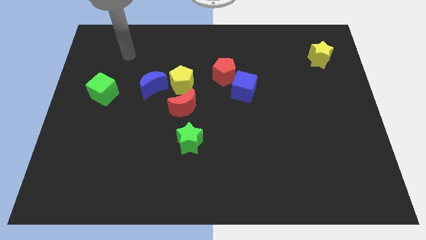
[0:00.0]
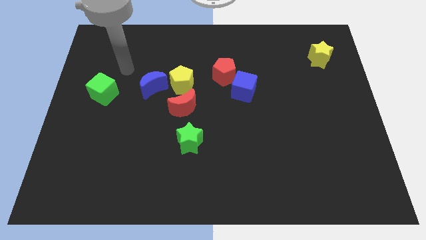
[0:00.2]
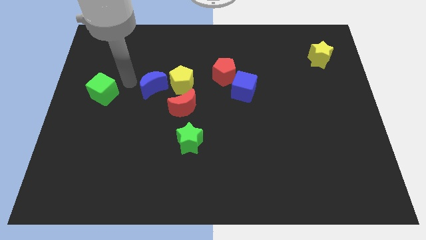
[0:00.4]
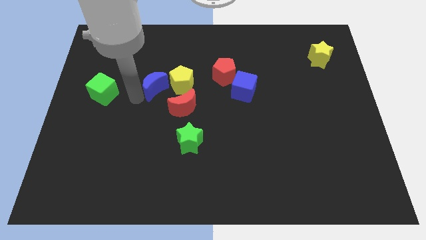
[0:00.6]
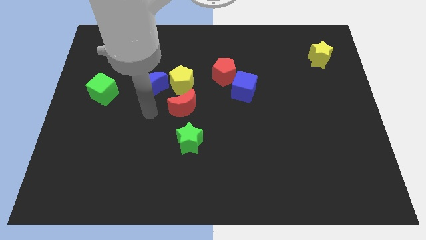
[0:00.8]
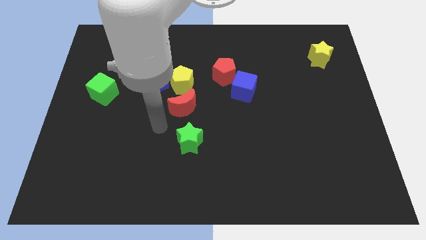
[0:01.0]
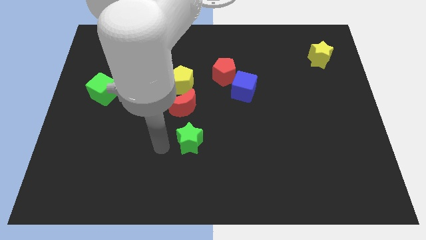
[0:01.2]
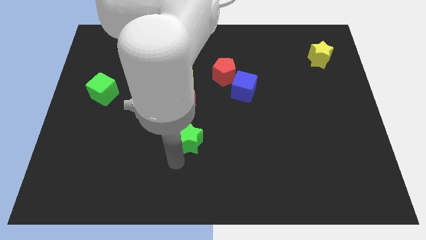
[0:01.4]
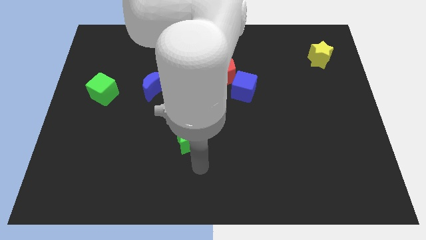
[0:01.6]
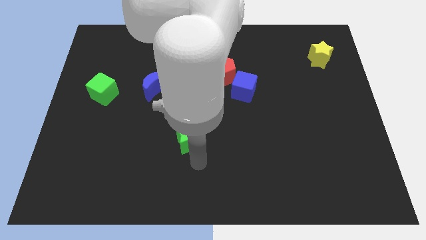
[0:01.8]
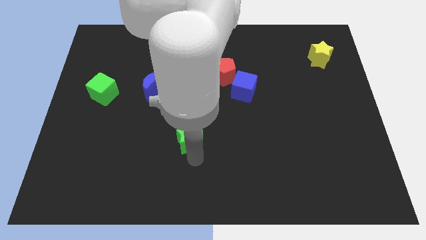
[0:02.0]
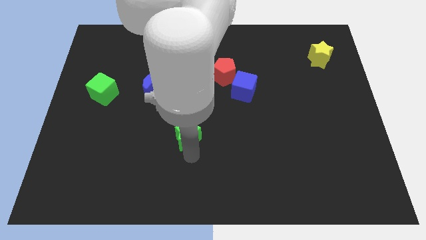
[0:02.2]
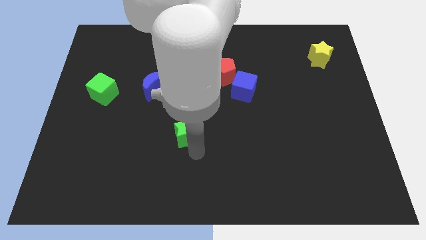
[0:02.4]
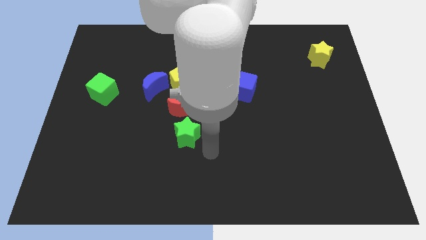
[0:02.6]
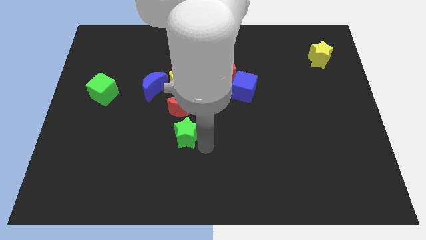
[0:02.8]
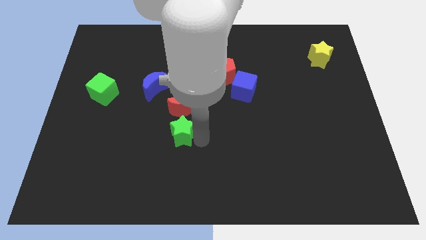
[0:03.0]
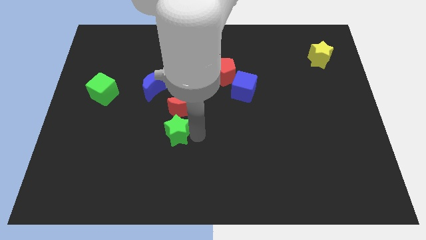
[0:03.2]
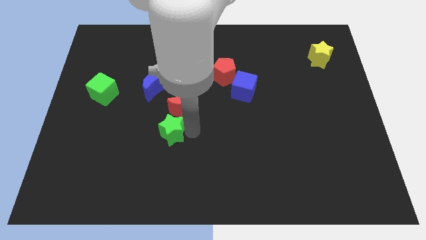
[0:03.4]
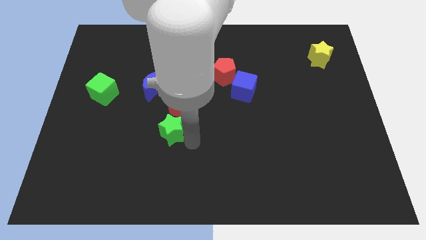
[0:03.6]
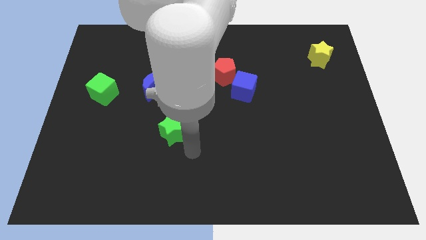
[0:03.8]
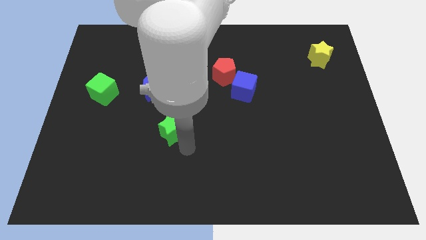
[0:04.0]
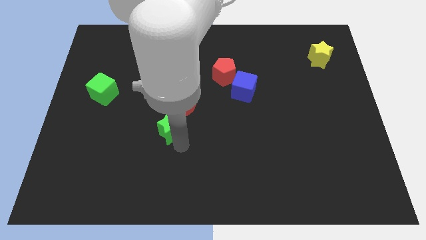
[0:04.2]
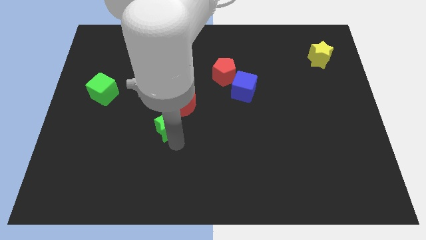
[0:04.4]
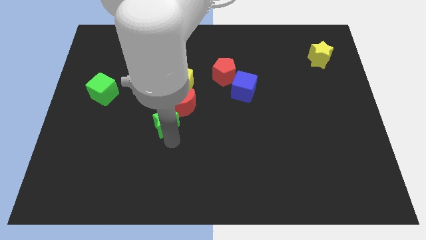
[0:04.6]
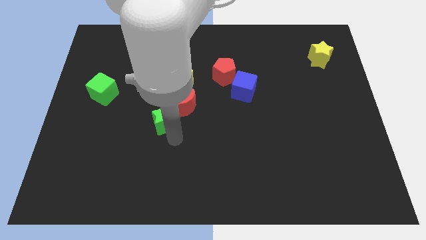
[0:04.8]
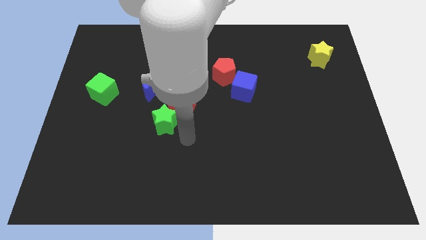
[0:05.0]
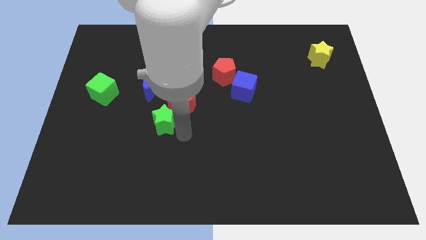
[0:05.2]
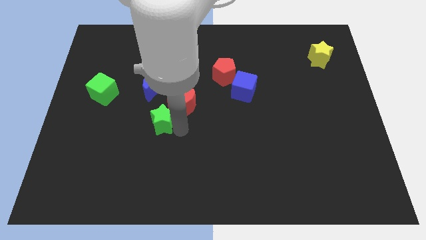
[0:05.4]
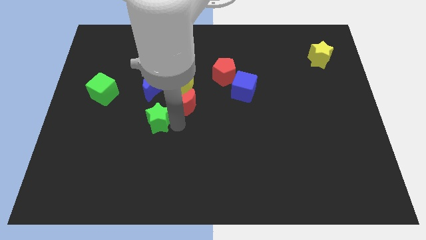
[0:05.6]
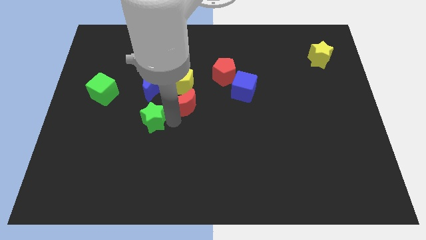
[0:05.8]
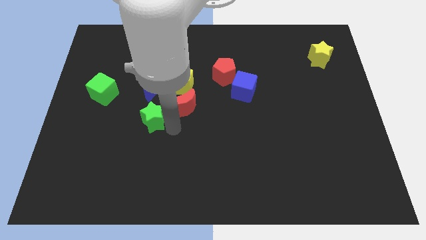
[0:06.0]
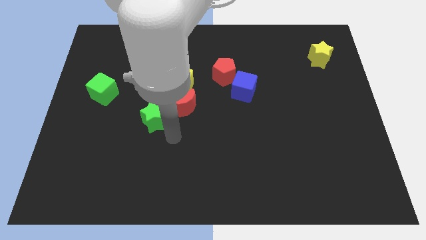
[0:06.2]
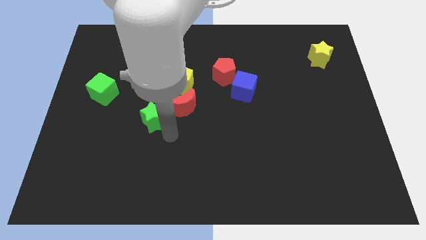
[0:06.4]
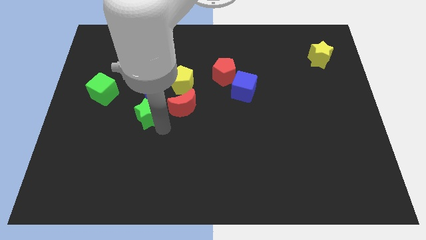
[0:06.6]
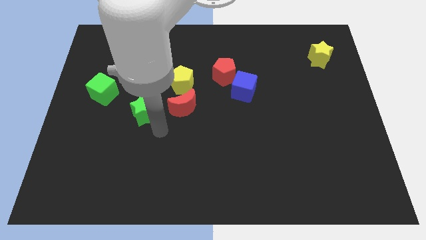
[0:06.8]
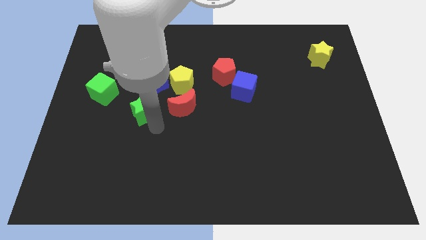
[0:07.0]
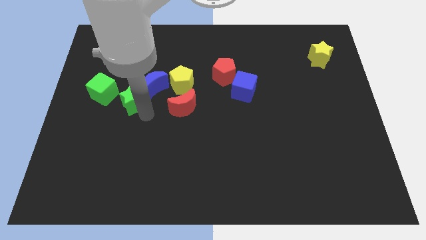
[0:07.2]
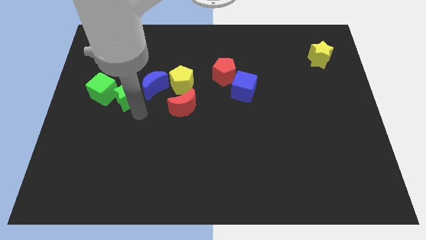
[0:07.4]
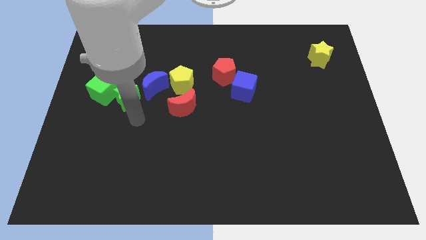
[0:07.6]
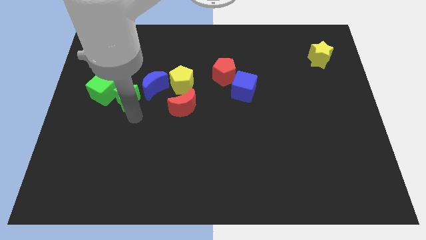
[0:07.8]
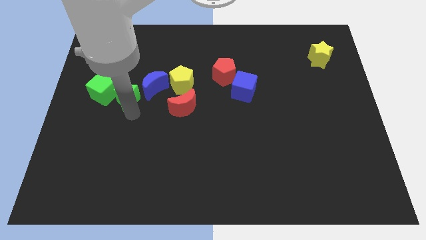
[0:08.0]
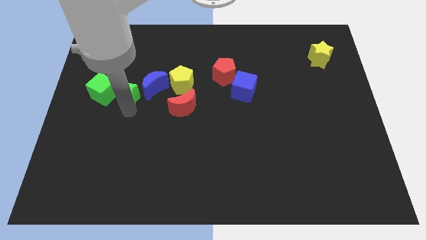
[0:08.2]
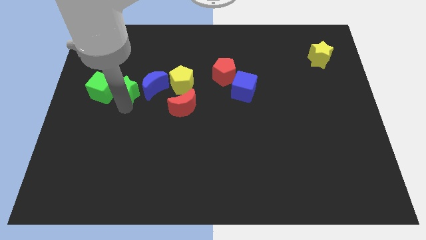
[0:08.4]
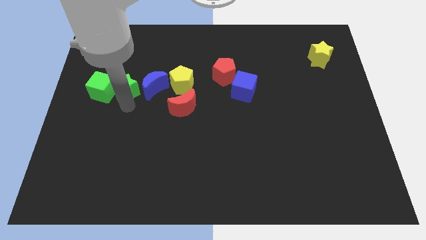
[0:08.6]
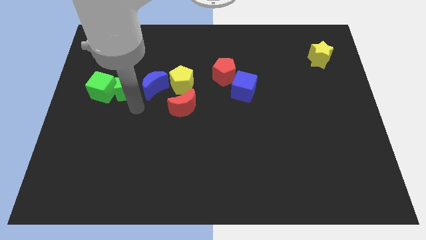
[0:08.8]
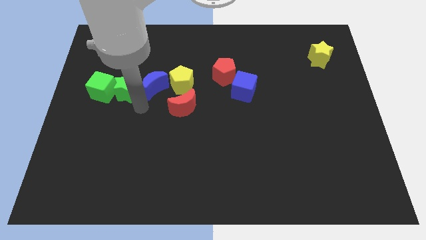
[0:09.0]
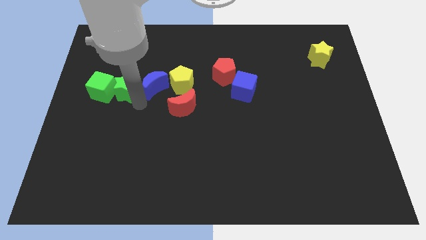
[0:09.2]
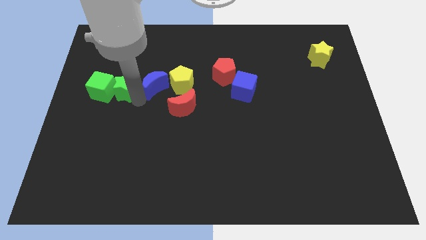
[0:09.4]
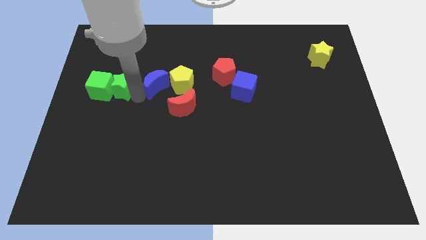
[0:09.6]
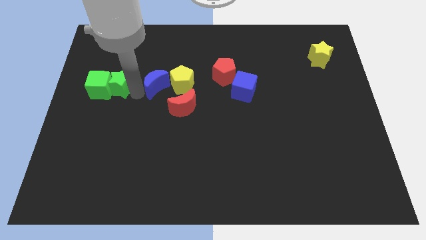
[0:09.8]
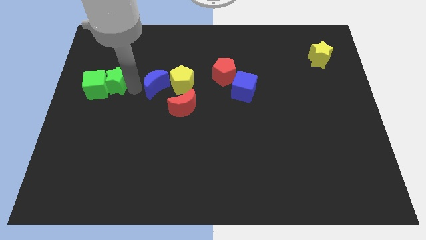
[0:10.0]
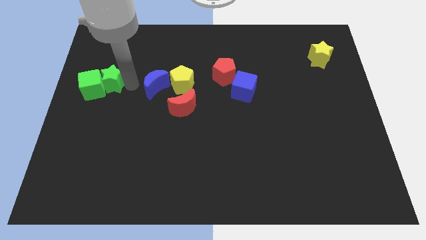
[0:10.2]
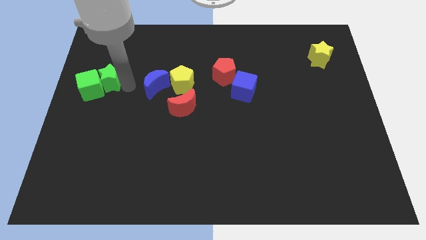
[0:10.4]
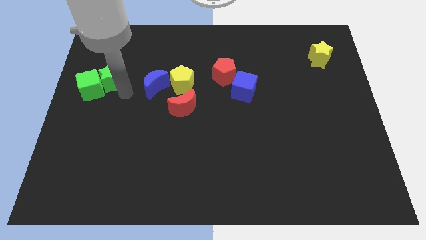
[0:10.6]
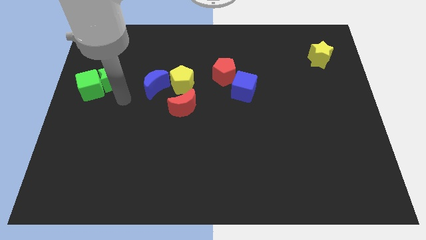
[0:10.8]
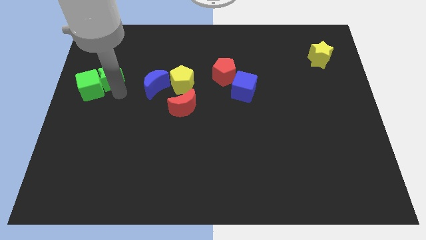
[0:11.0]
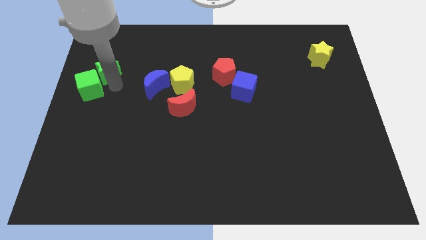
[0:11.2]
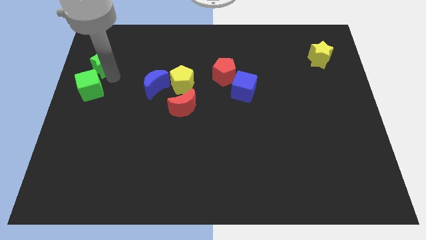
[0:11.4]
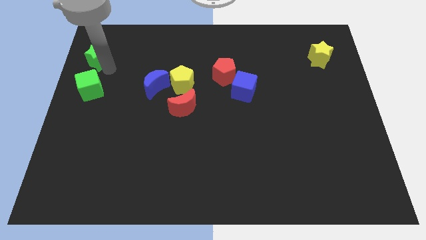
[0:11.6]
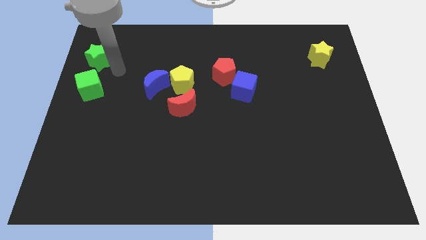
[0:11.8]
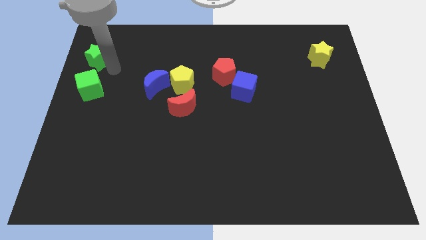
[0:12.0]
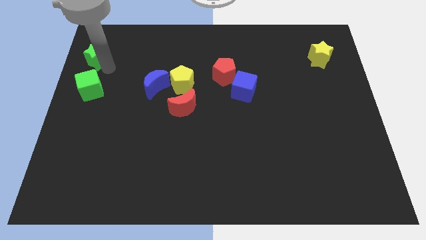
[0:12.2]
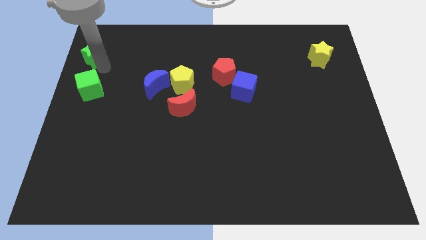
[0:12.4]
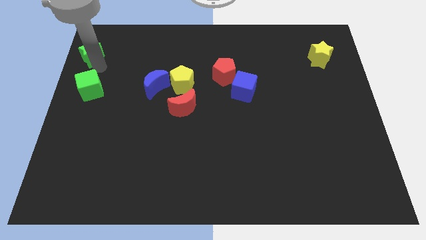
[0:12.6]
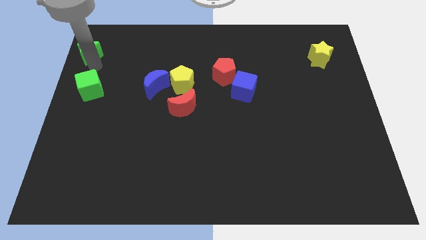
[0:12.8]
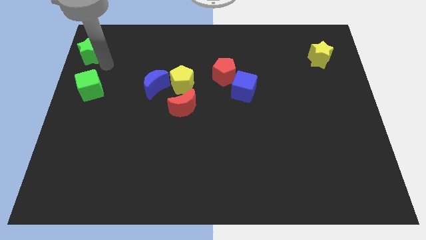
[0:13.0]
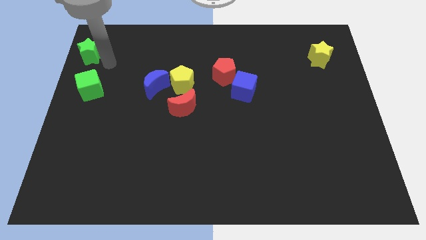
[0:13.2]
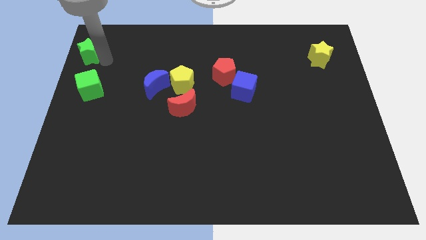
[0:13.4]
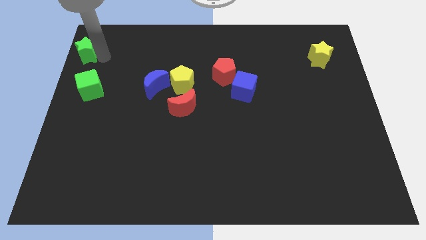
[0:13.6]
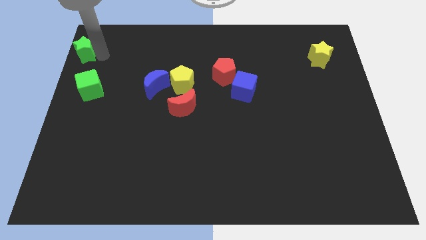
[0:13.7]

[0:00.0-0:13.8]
put the green star to the top left corner

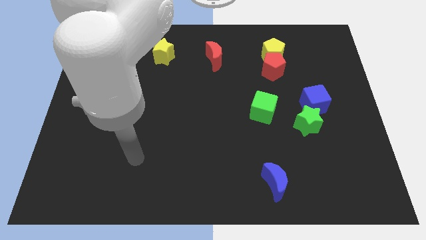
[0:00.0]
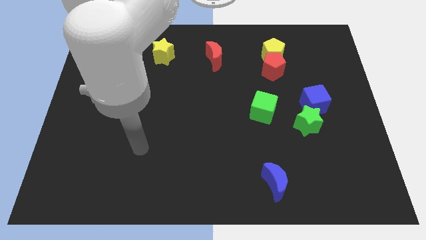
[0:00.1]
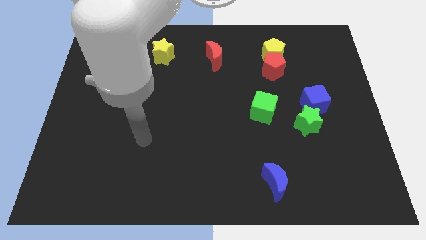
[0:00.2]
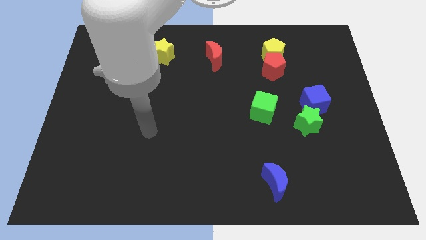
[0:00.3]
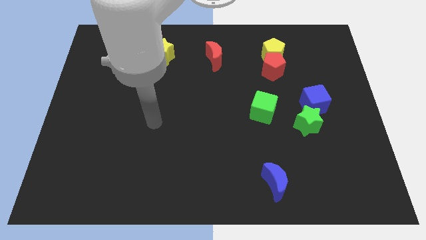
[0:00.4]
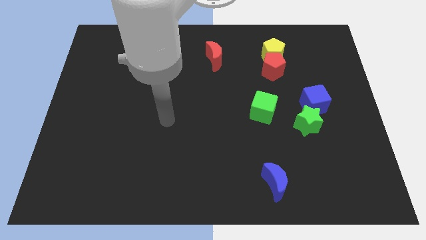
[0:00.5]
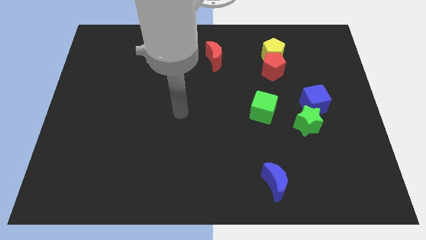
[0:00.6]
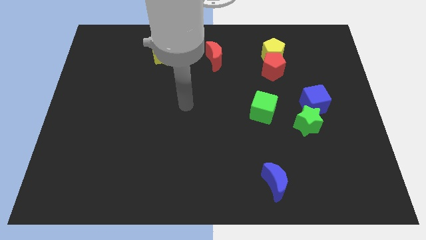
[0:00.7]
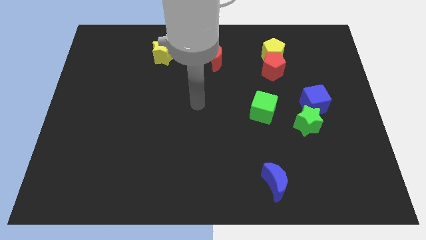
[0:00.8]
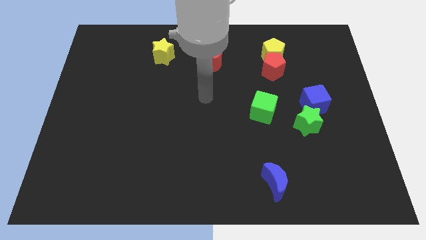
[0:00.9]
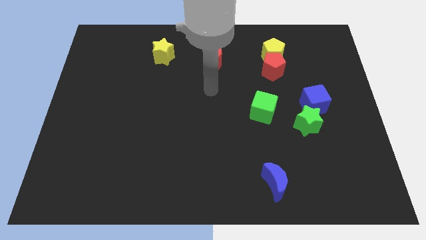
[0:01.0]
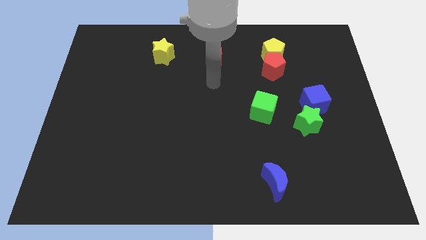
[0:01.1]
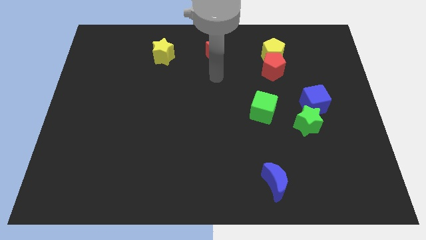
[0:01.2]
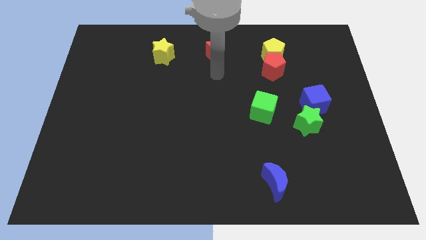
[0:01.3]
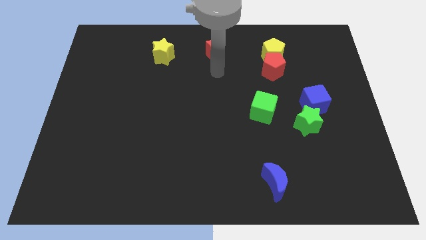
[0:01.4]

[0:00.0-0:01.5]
put the red moon to the top side
